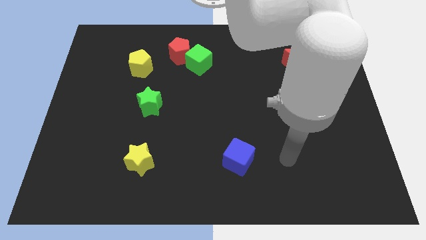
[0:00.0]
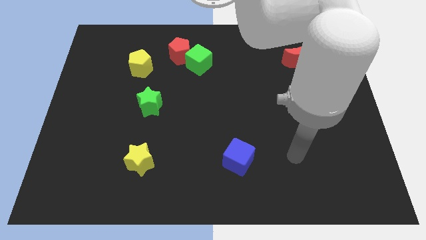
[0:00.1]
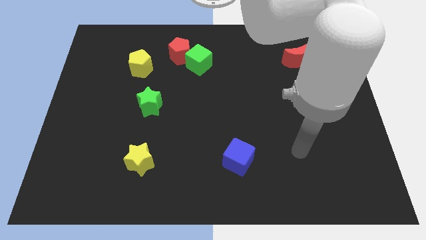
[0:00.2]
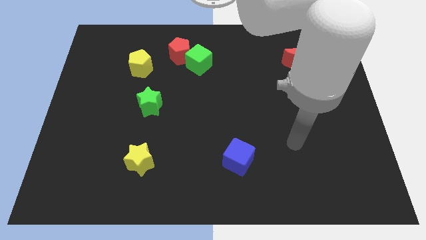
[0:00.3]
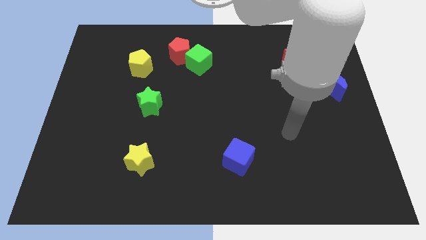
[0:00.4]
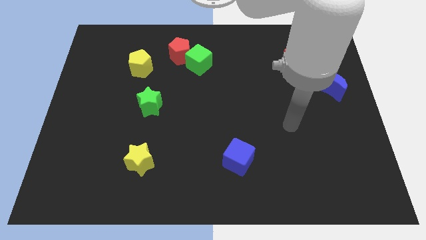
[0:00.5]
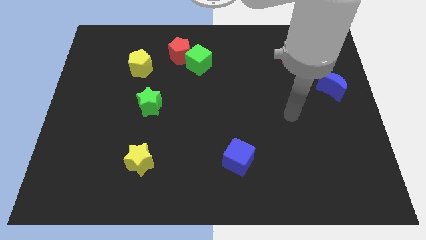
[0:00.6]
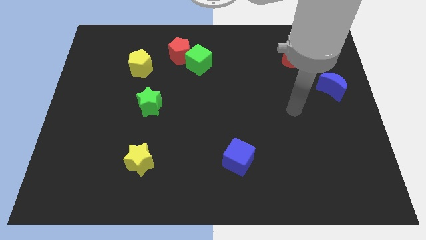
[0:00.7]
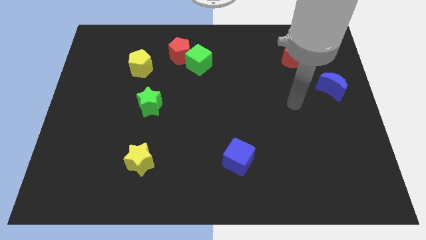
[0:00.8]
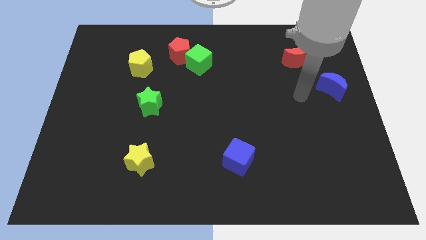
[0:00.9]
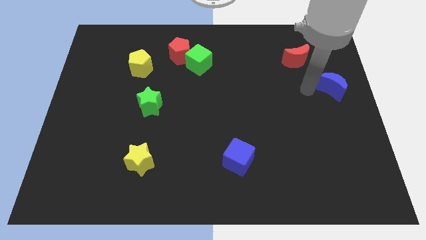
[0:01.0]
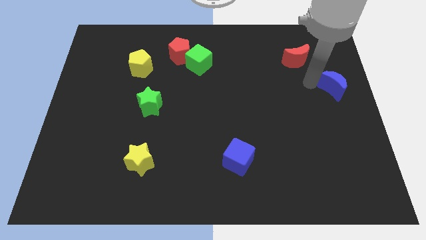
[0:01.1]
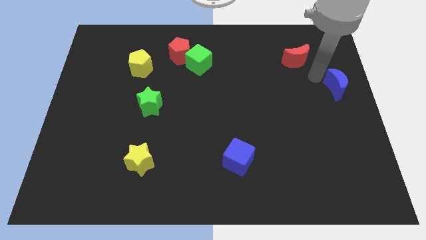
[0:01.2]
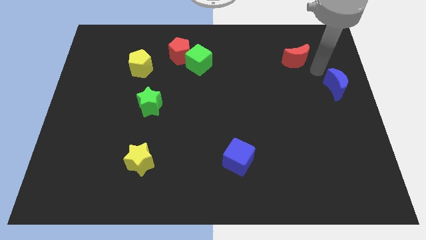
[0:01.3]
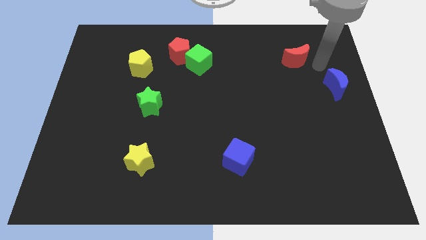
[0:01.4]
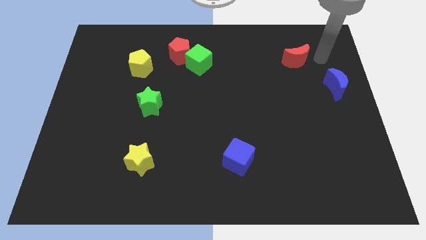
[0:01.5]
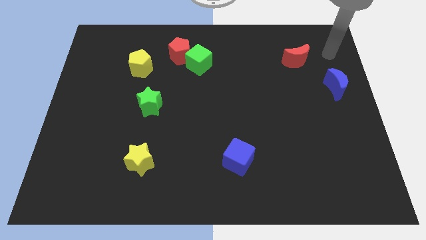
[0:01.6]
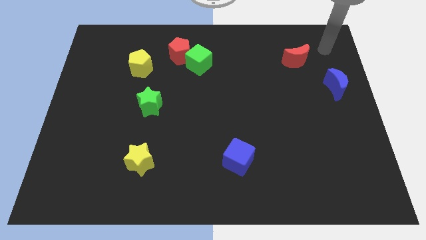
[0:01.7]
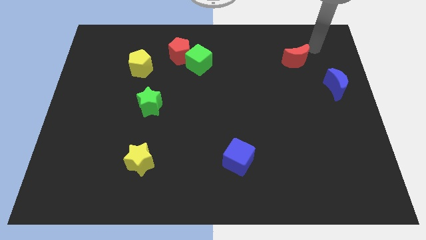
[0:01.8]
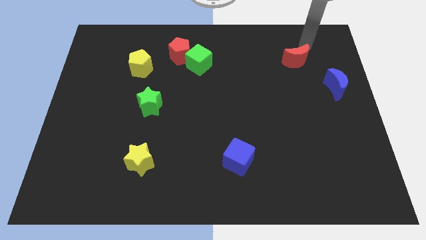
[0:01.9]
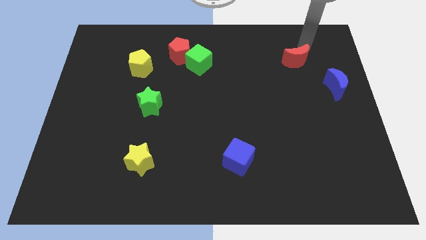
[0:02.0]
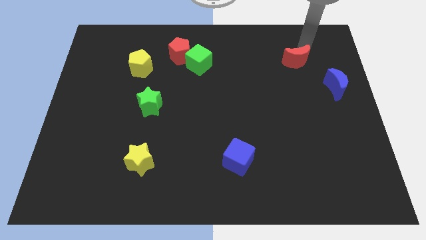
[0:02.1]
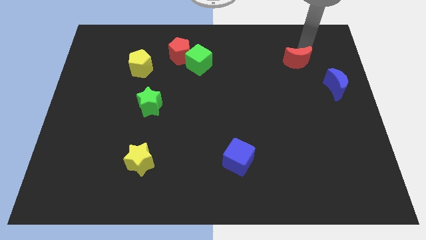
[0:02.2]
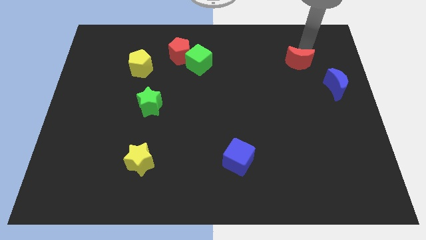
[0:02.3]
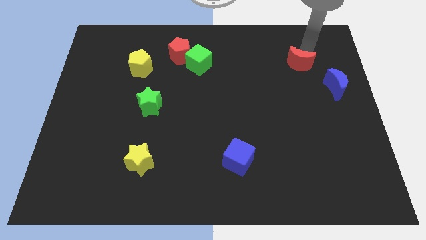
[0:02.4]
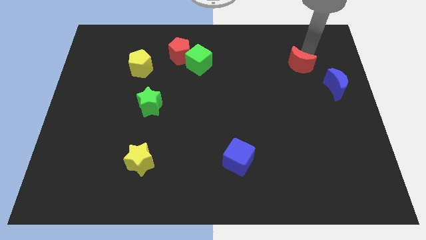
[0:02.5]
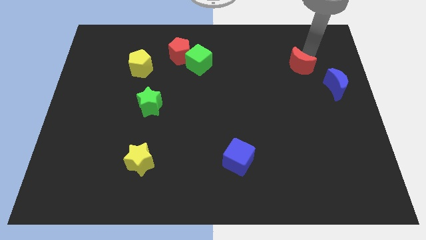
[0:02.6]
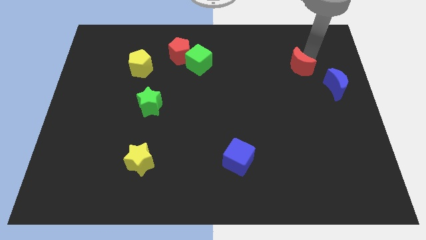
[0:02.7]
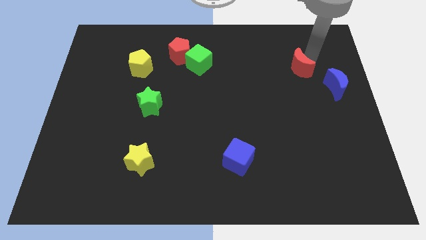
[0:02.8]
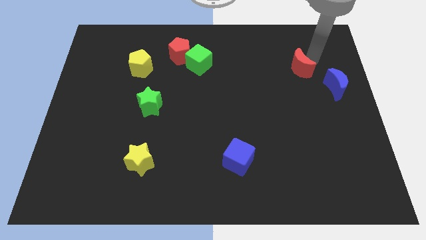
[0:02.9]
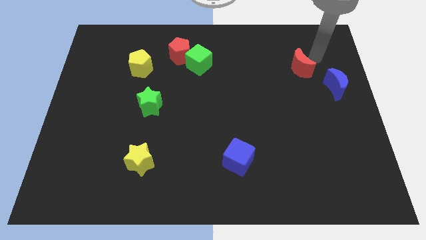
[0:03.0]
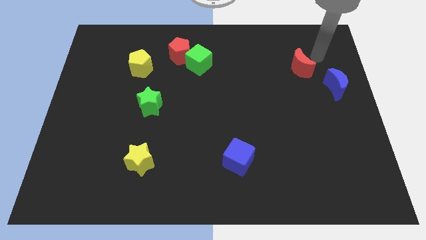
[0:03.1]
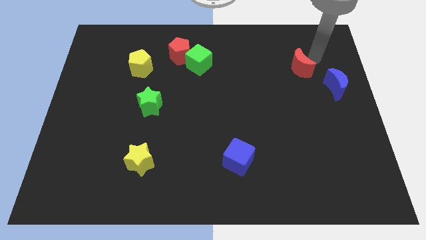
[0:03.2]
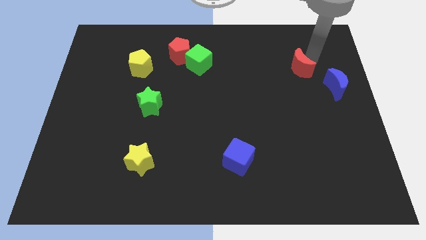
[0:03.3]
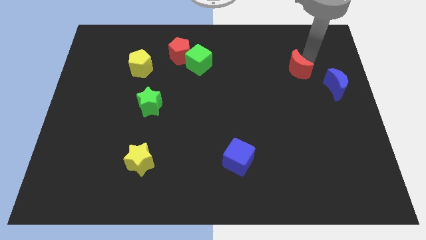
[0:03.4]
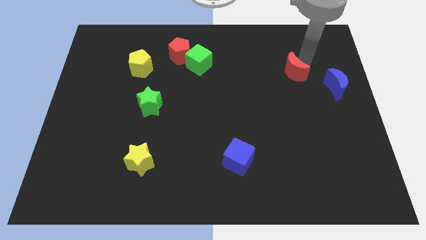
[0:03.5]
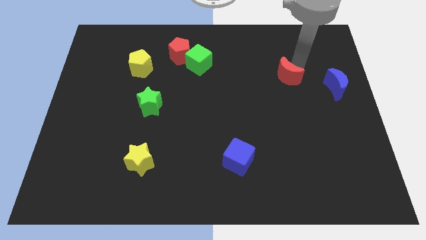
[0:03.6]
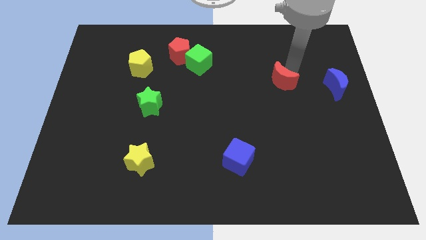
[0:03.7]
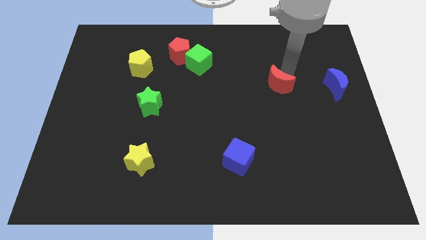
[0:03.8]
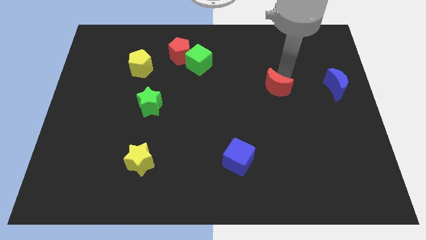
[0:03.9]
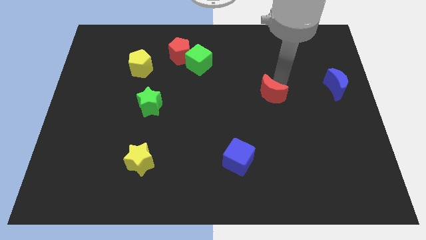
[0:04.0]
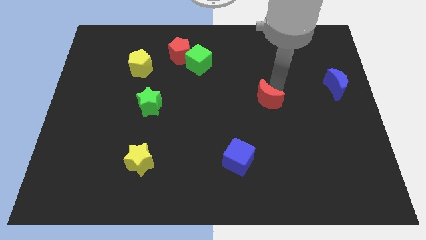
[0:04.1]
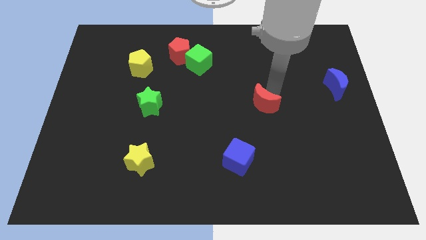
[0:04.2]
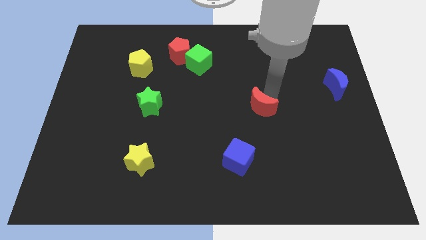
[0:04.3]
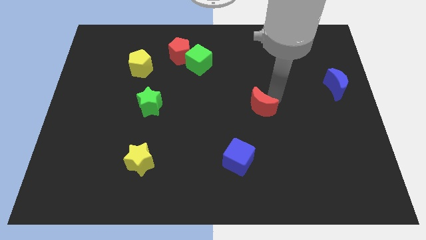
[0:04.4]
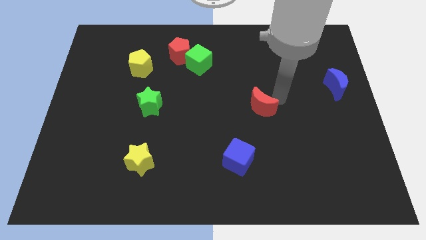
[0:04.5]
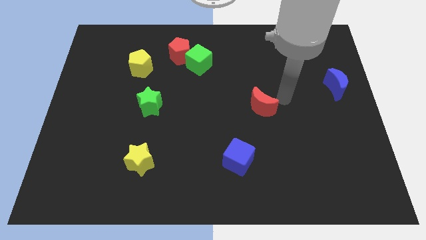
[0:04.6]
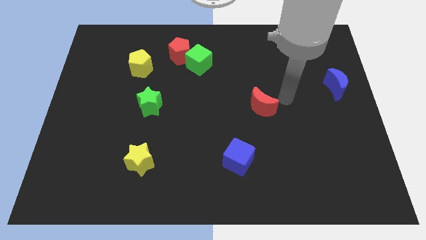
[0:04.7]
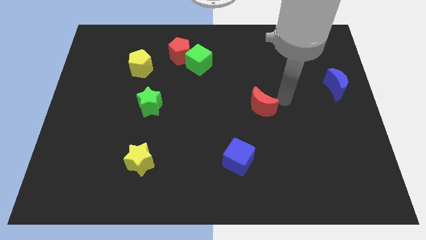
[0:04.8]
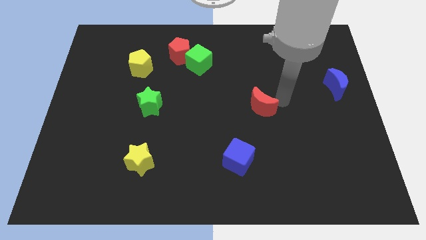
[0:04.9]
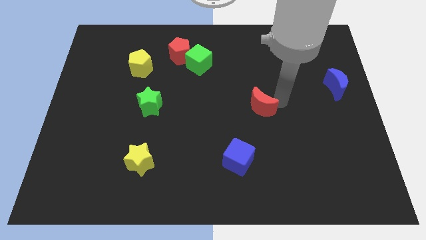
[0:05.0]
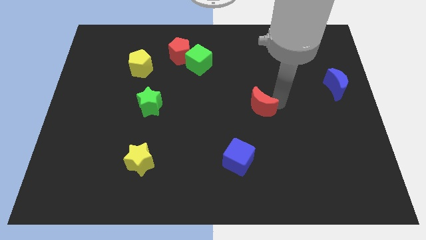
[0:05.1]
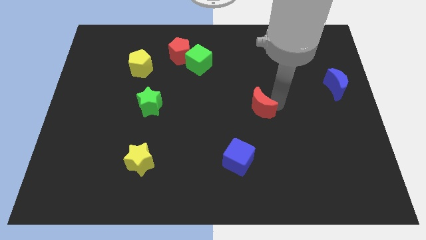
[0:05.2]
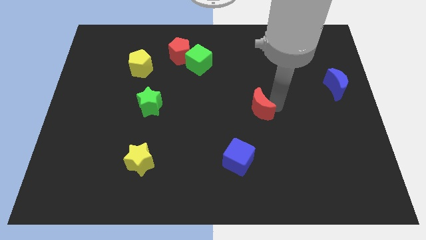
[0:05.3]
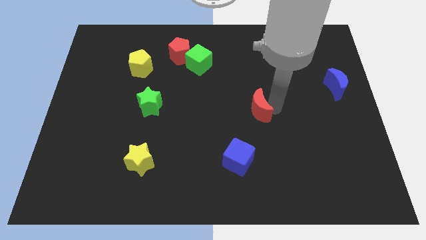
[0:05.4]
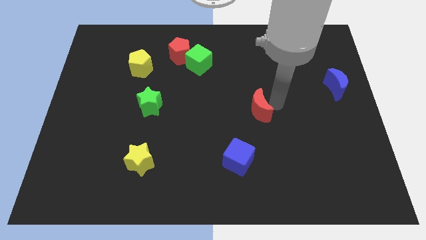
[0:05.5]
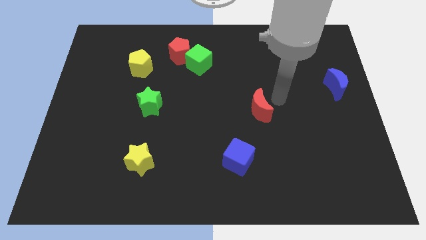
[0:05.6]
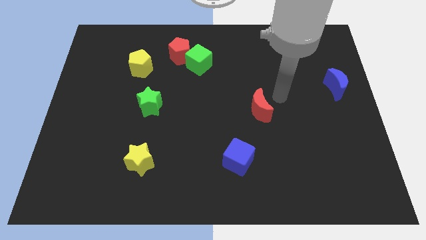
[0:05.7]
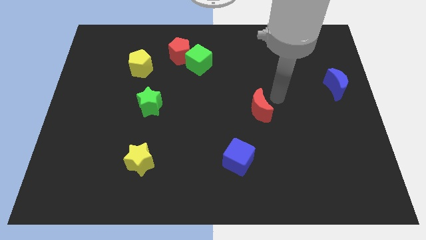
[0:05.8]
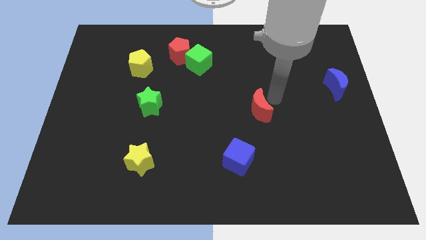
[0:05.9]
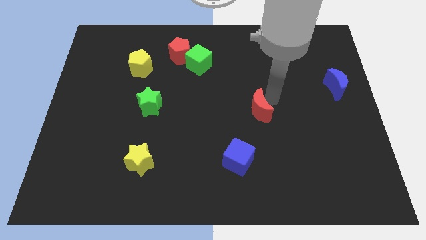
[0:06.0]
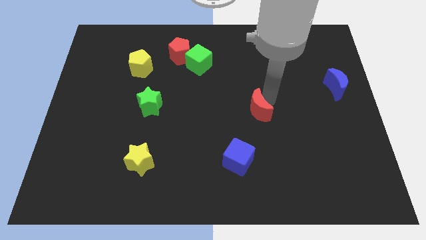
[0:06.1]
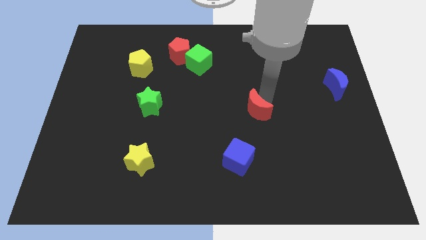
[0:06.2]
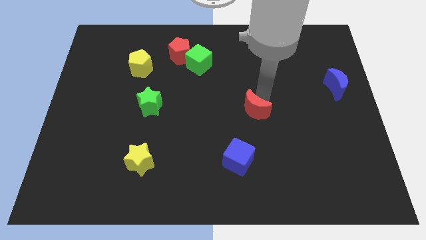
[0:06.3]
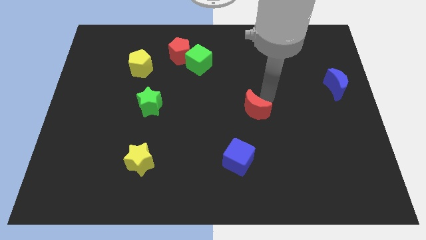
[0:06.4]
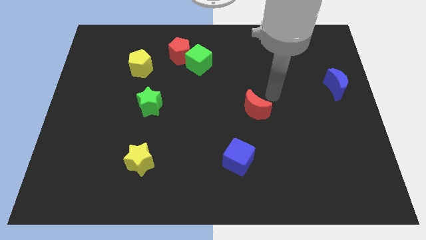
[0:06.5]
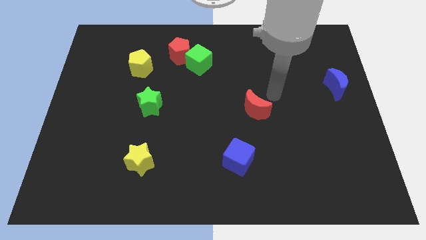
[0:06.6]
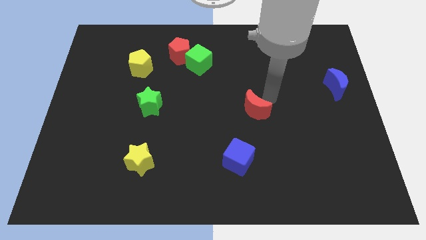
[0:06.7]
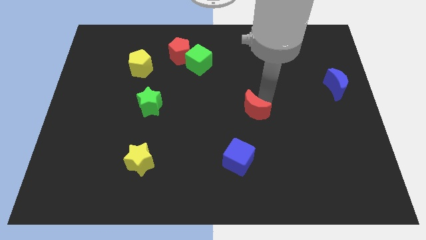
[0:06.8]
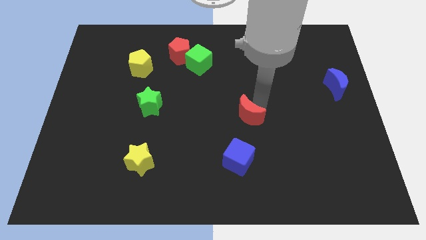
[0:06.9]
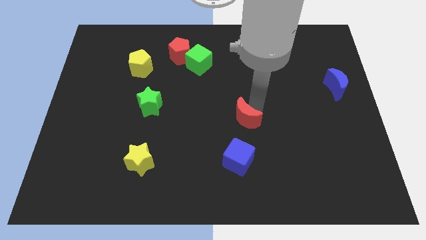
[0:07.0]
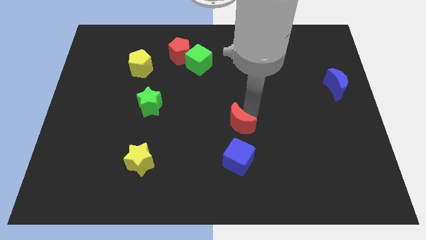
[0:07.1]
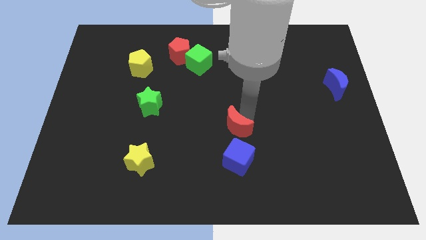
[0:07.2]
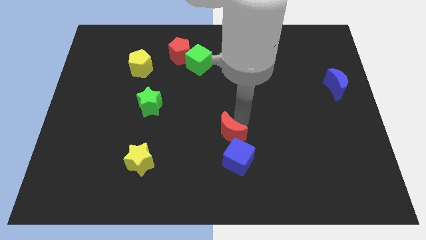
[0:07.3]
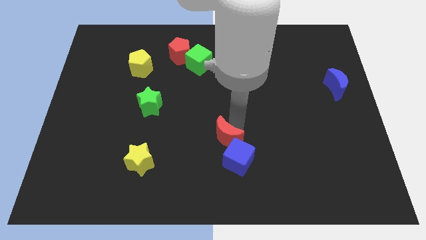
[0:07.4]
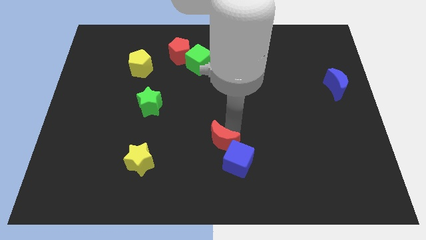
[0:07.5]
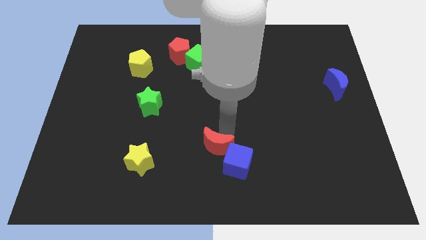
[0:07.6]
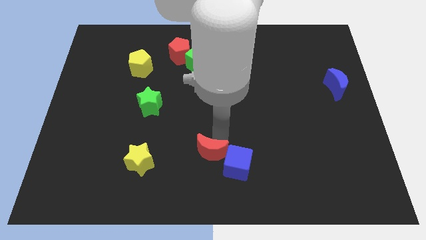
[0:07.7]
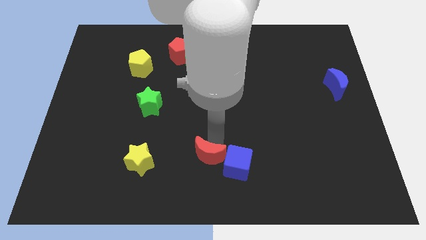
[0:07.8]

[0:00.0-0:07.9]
slide the red moon to the bottom side
